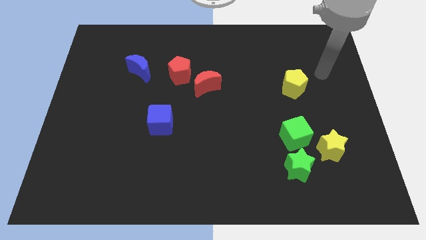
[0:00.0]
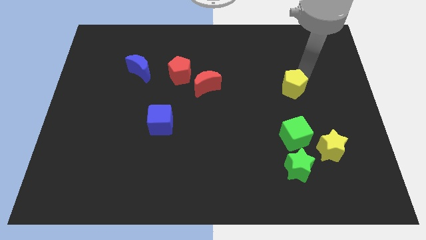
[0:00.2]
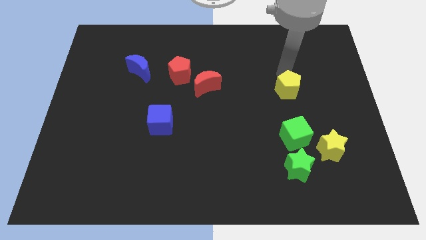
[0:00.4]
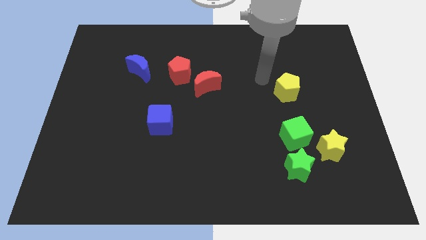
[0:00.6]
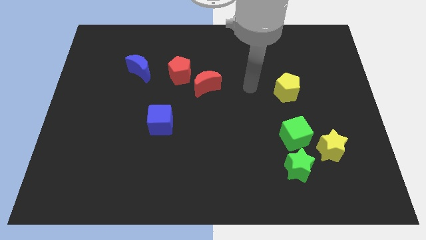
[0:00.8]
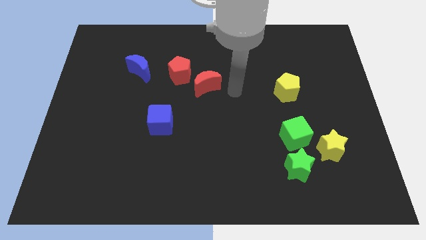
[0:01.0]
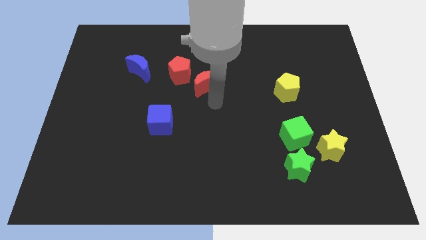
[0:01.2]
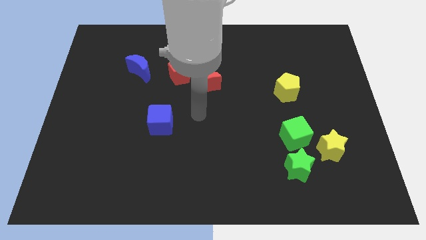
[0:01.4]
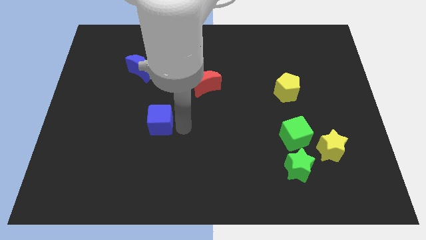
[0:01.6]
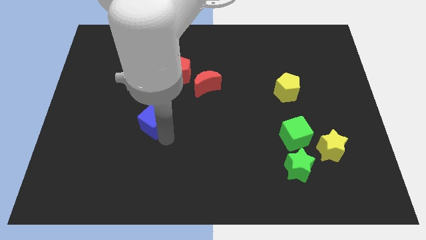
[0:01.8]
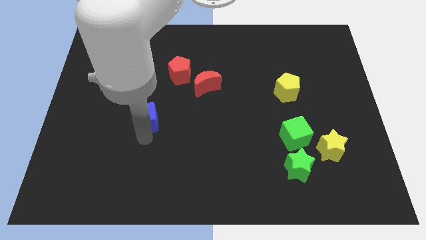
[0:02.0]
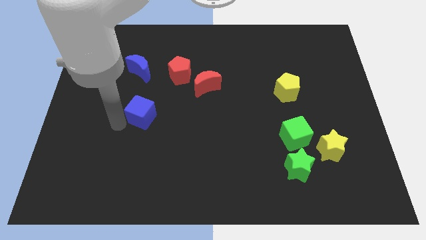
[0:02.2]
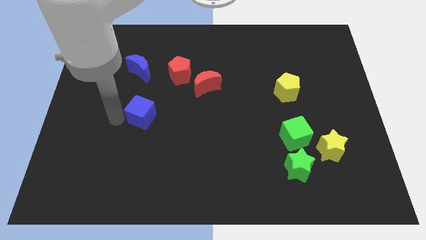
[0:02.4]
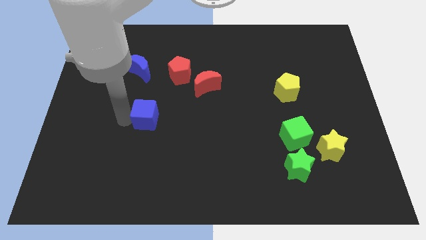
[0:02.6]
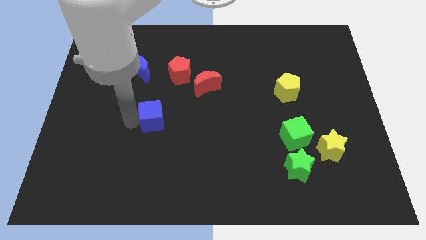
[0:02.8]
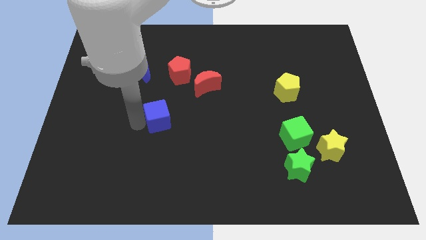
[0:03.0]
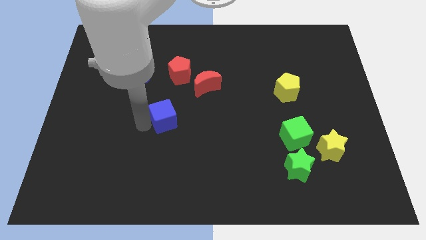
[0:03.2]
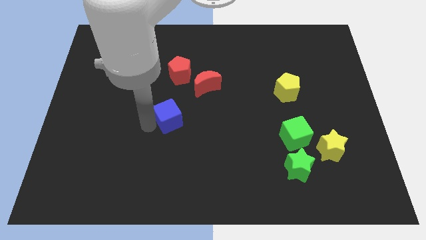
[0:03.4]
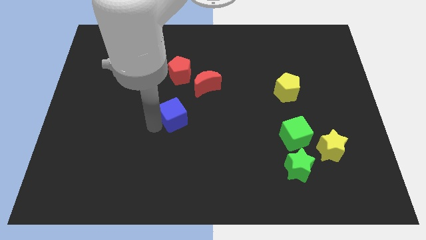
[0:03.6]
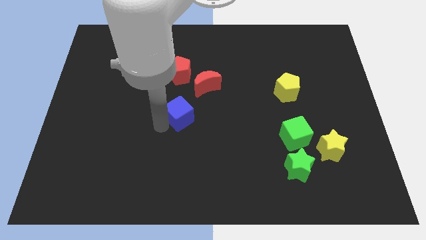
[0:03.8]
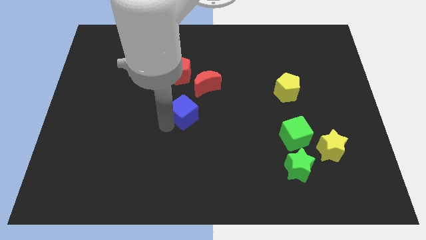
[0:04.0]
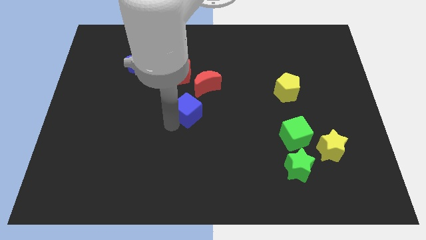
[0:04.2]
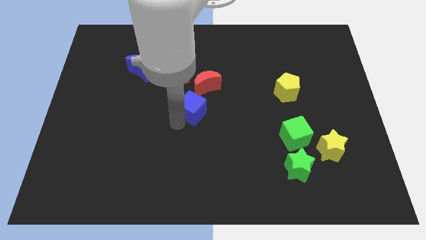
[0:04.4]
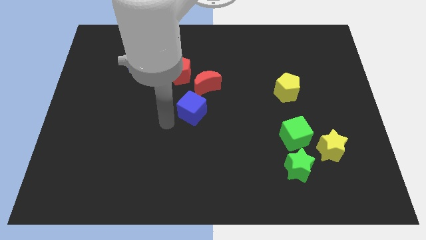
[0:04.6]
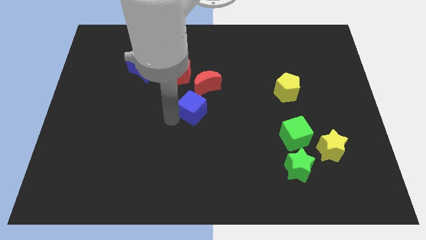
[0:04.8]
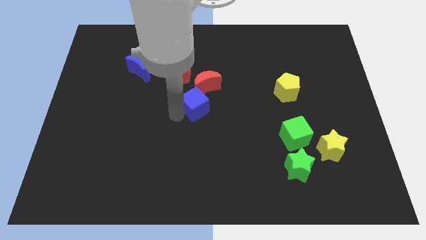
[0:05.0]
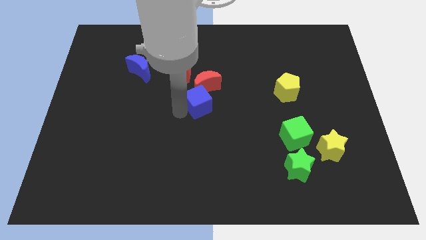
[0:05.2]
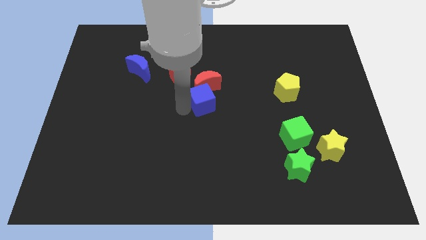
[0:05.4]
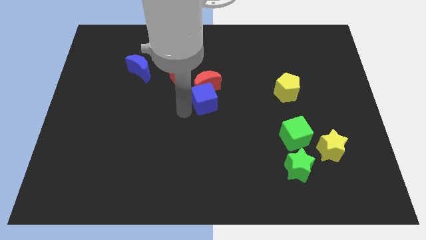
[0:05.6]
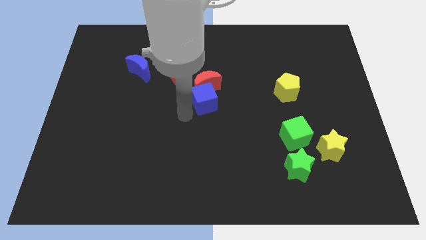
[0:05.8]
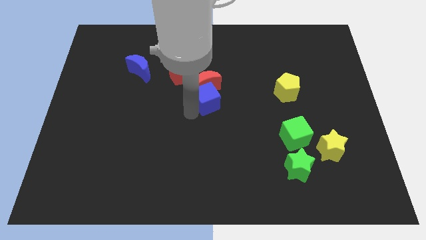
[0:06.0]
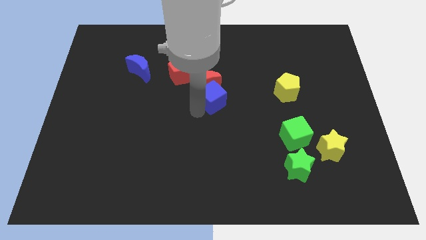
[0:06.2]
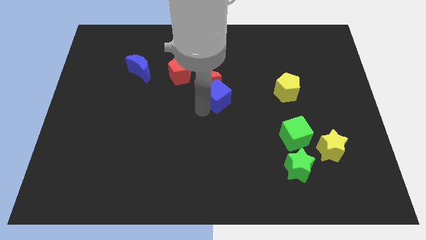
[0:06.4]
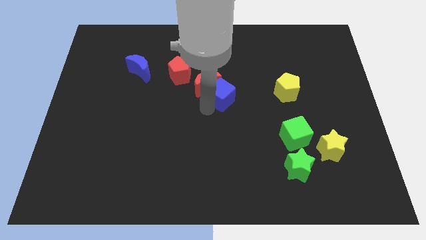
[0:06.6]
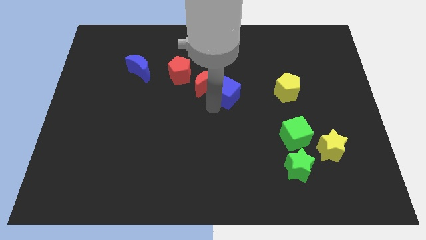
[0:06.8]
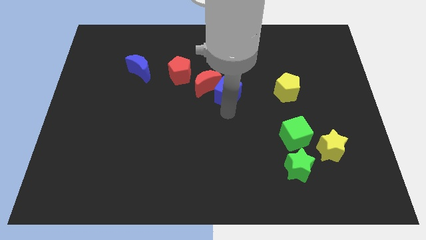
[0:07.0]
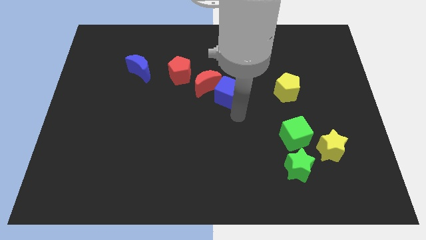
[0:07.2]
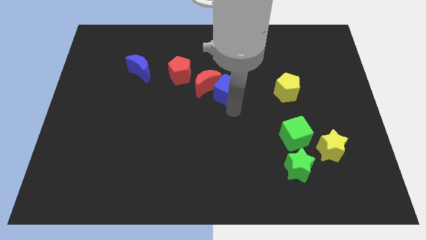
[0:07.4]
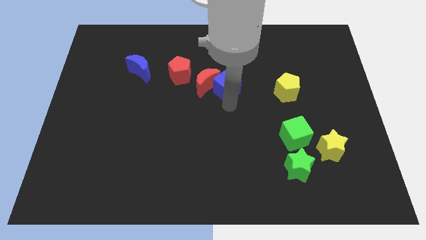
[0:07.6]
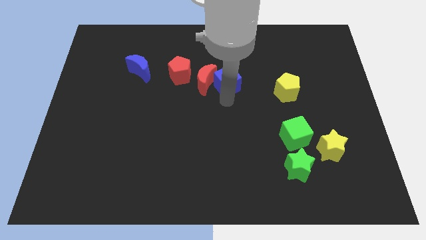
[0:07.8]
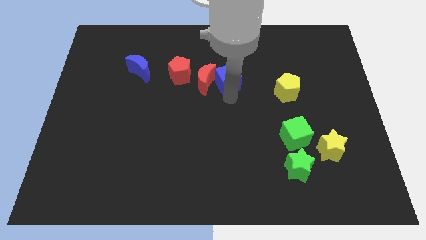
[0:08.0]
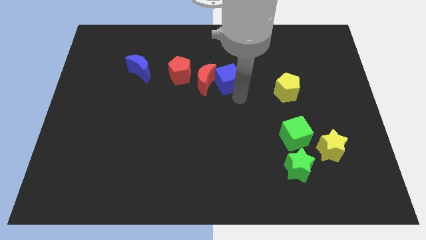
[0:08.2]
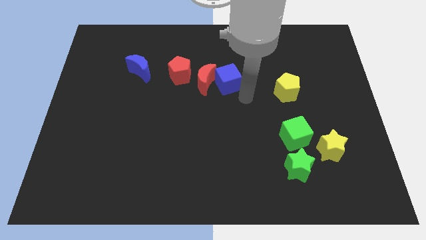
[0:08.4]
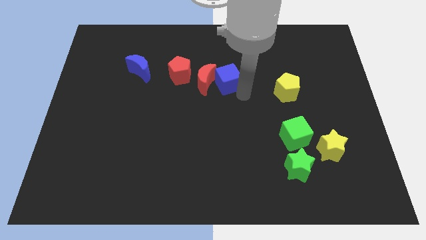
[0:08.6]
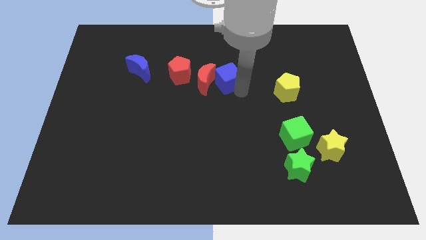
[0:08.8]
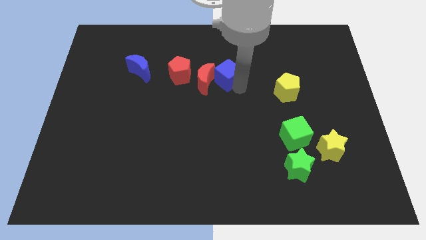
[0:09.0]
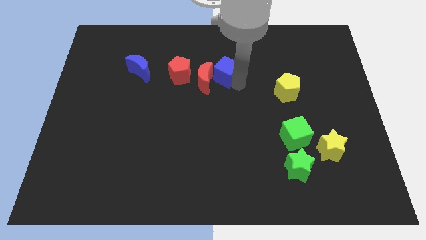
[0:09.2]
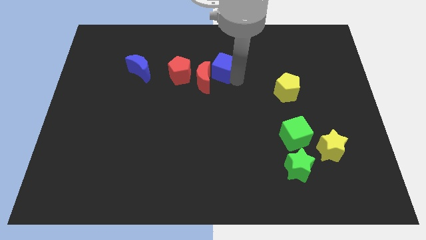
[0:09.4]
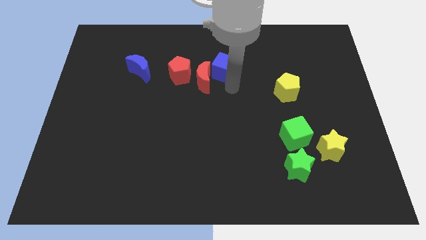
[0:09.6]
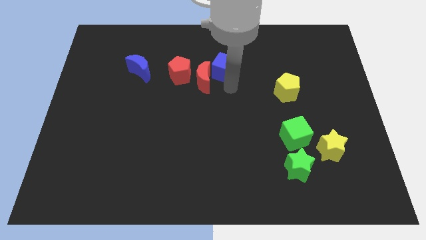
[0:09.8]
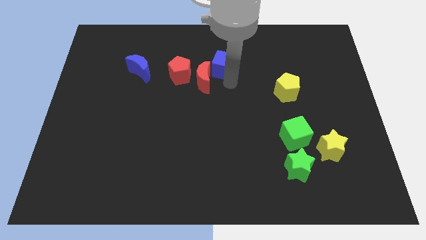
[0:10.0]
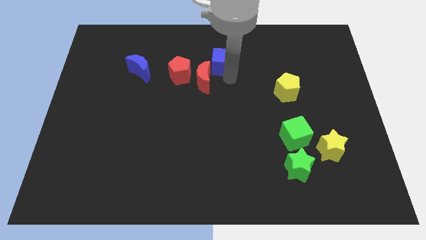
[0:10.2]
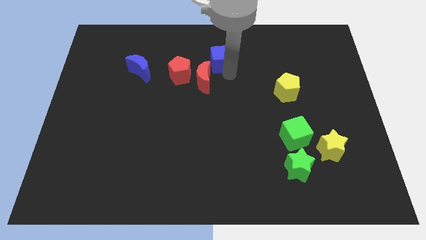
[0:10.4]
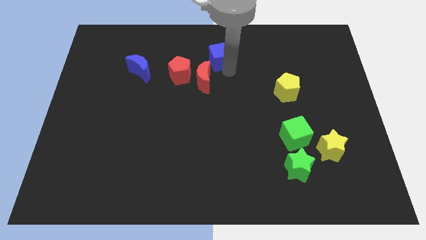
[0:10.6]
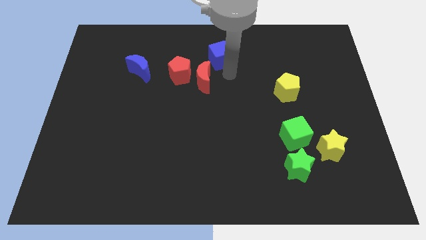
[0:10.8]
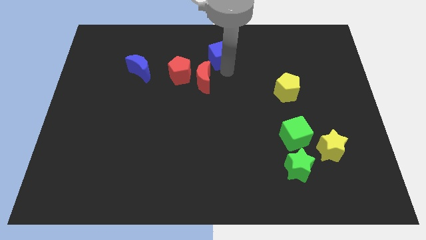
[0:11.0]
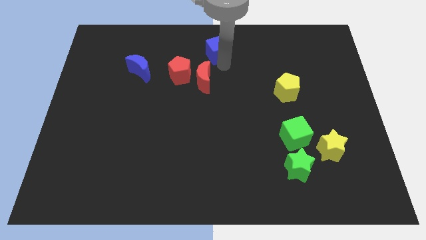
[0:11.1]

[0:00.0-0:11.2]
slide the blue cube to the top

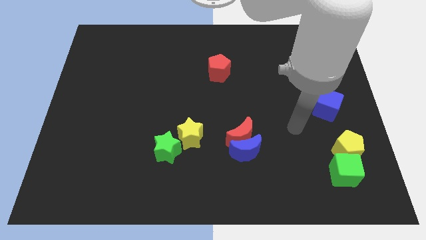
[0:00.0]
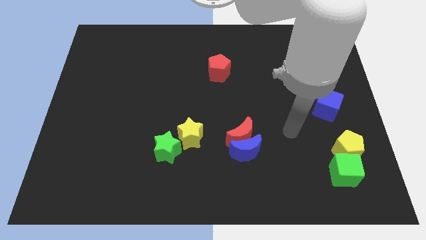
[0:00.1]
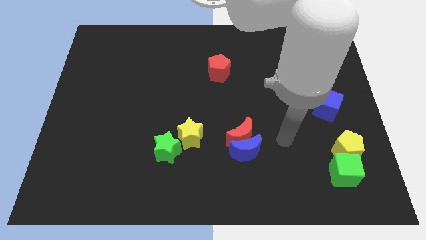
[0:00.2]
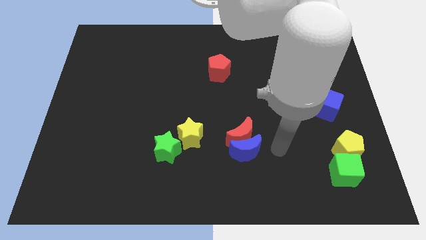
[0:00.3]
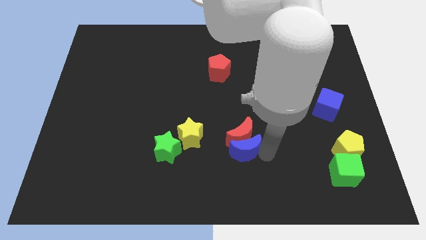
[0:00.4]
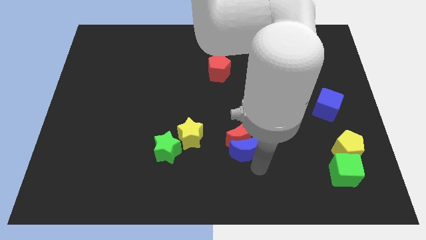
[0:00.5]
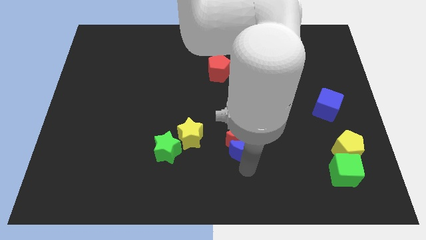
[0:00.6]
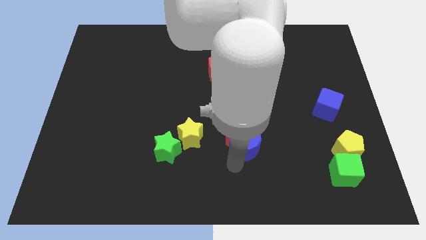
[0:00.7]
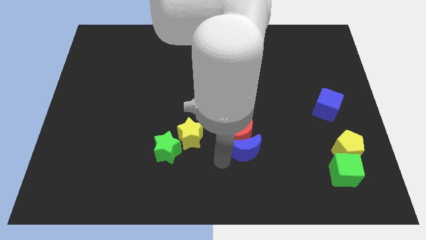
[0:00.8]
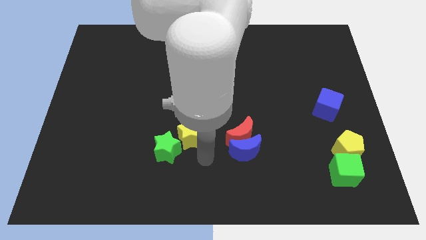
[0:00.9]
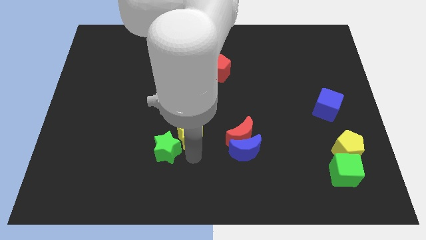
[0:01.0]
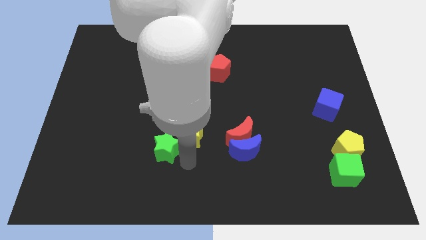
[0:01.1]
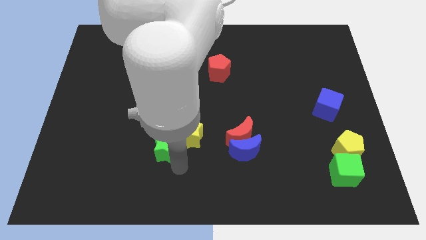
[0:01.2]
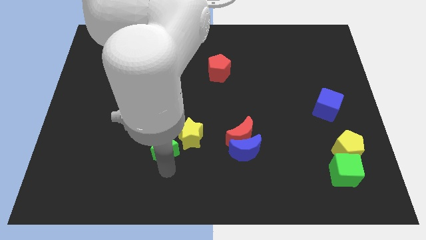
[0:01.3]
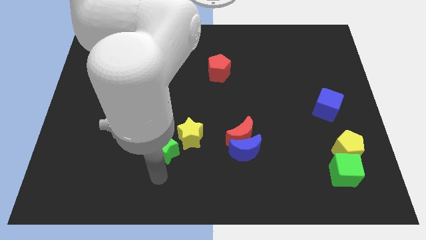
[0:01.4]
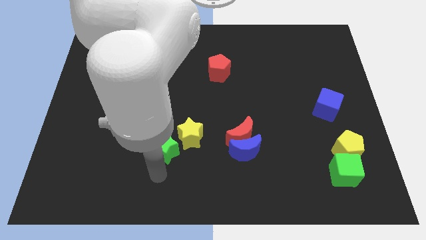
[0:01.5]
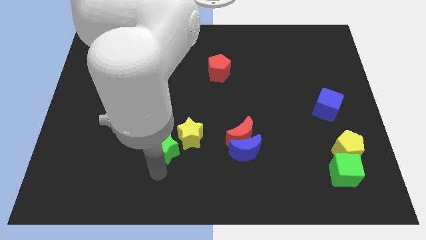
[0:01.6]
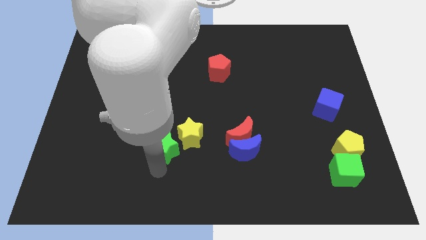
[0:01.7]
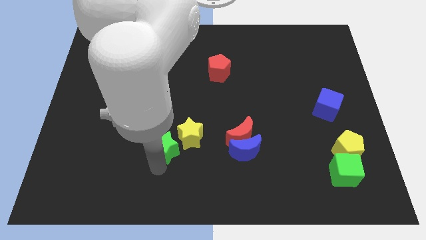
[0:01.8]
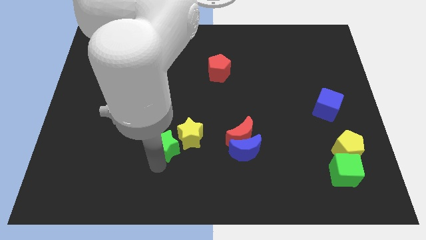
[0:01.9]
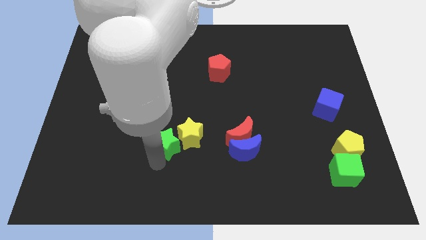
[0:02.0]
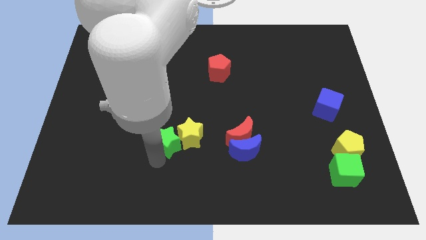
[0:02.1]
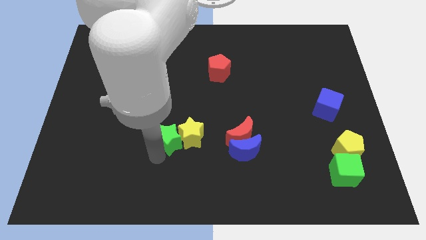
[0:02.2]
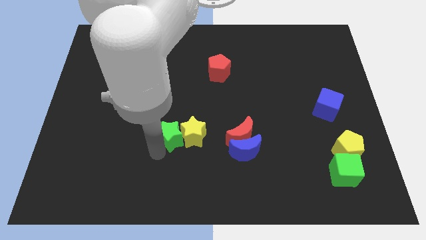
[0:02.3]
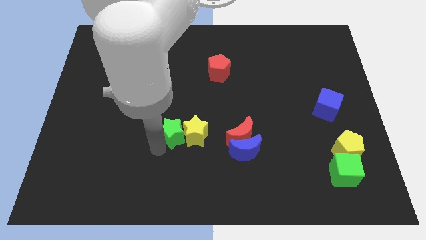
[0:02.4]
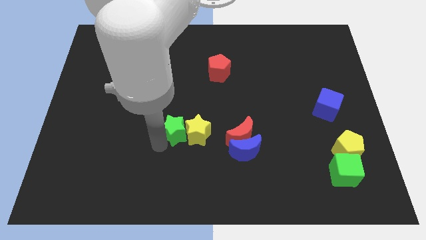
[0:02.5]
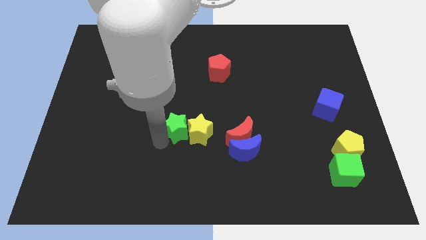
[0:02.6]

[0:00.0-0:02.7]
push the green star to the center of the board

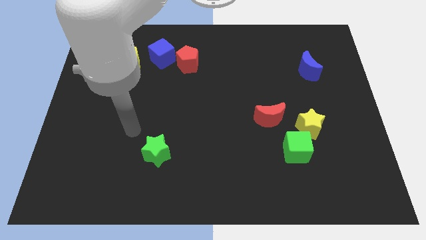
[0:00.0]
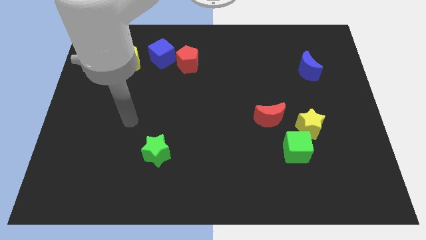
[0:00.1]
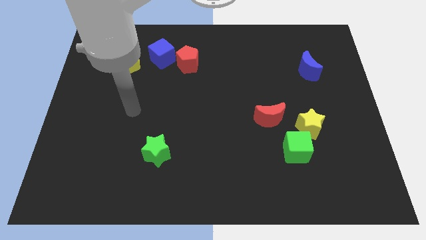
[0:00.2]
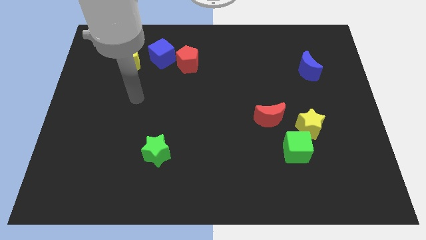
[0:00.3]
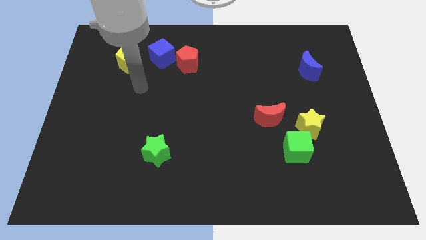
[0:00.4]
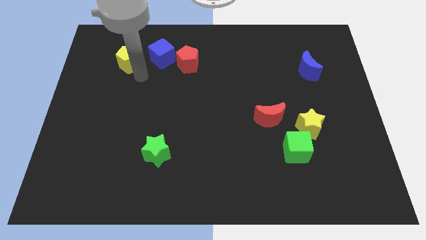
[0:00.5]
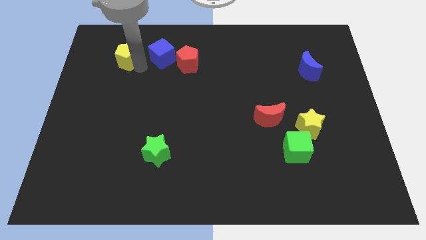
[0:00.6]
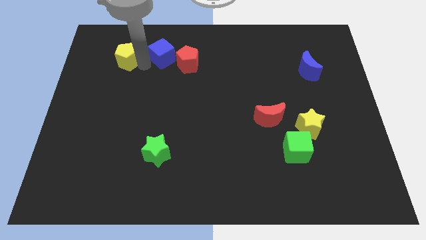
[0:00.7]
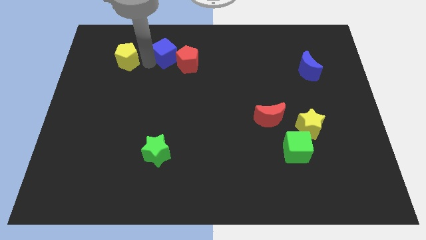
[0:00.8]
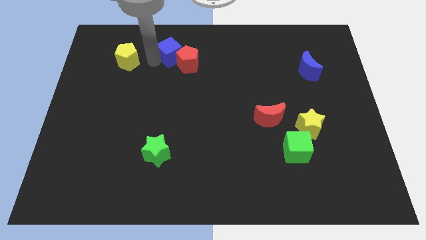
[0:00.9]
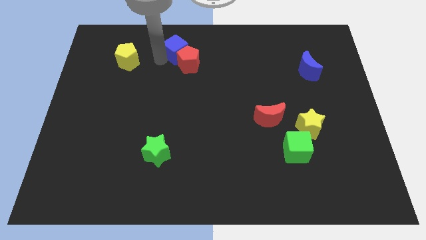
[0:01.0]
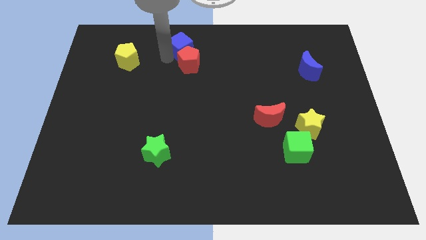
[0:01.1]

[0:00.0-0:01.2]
move the blue cube to the top
